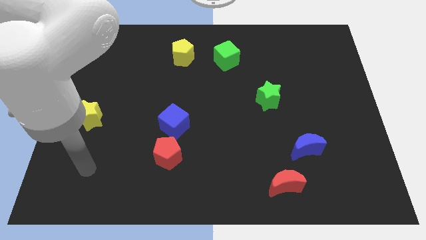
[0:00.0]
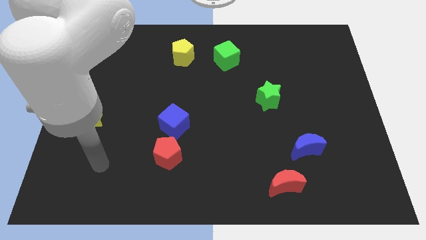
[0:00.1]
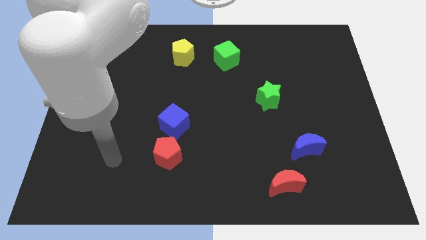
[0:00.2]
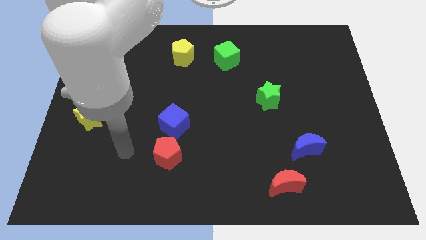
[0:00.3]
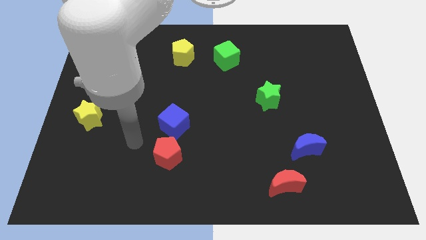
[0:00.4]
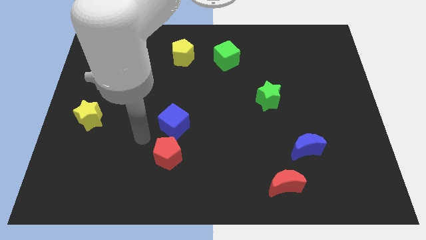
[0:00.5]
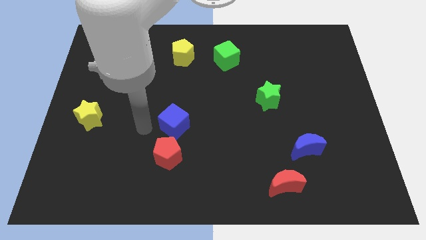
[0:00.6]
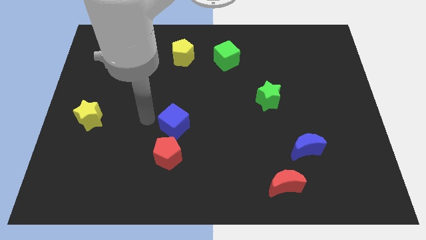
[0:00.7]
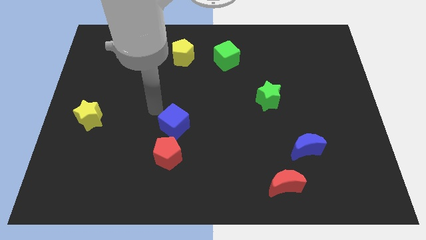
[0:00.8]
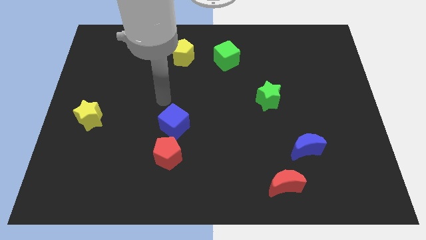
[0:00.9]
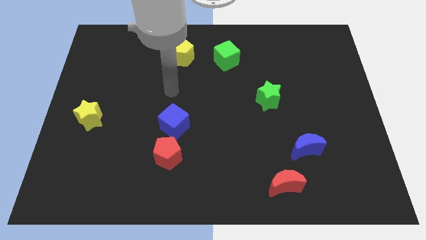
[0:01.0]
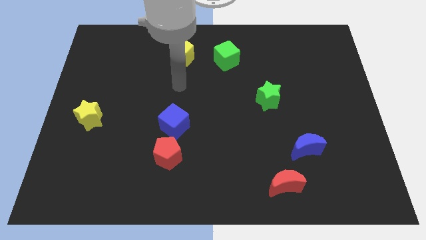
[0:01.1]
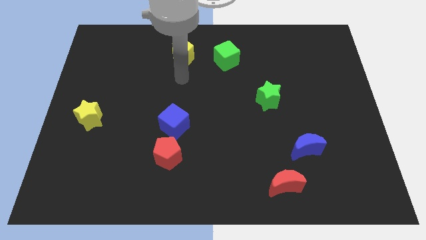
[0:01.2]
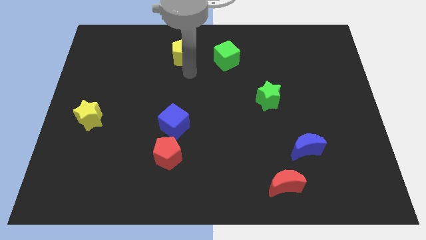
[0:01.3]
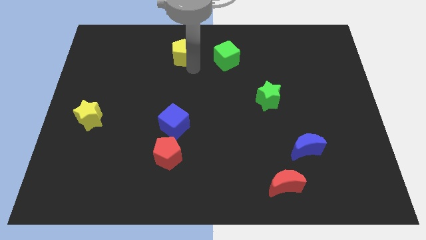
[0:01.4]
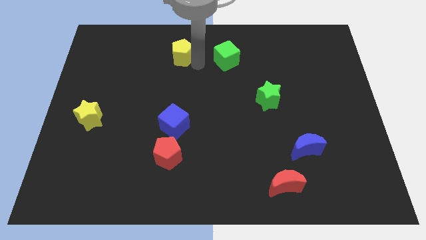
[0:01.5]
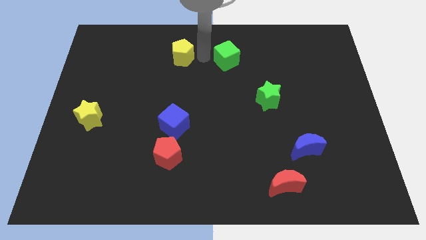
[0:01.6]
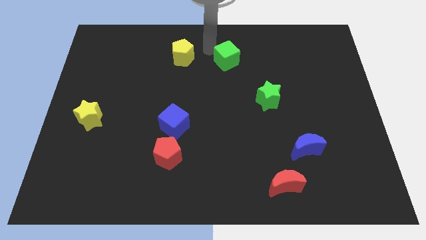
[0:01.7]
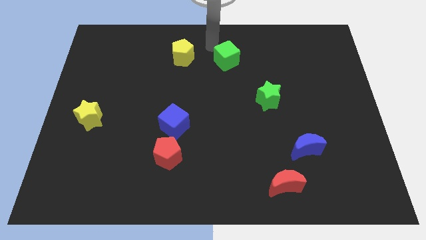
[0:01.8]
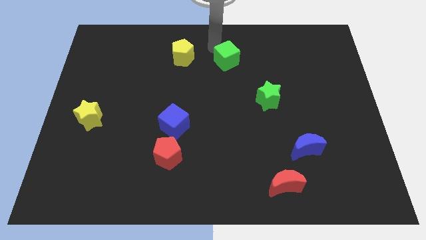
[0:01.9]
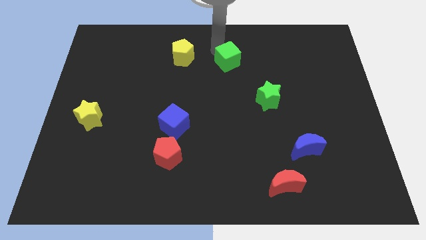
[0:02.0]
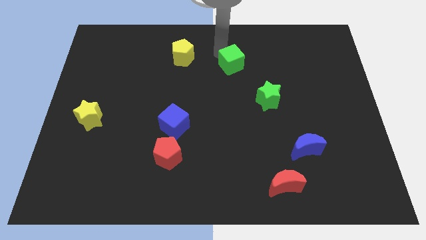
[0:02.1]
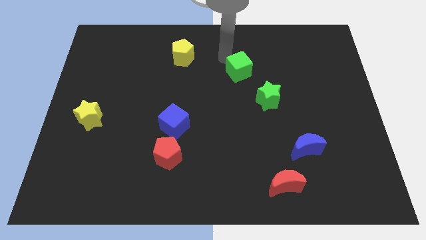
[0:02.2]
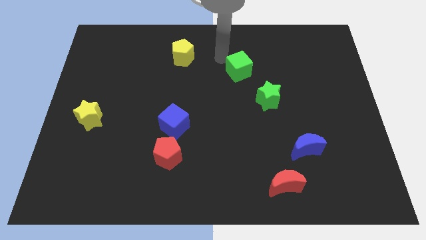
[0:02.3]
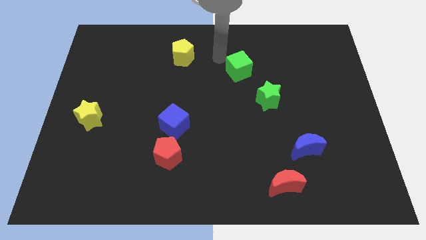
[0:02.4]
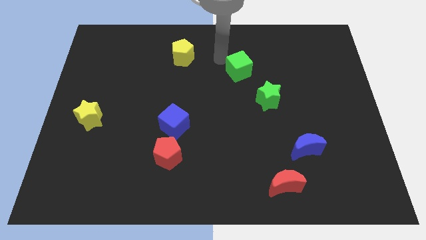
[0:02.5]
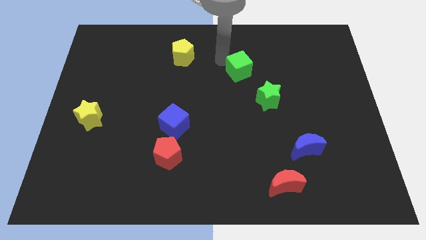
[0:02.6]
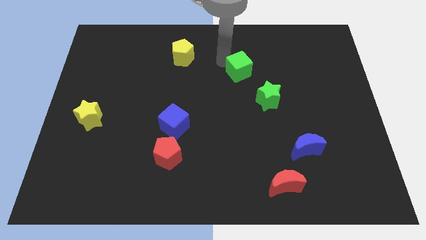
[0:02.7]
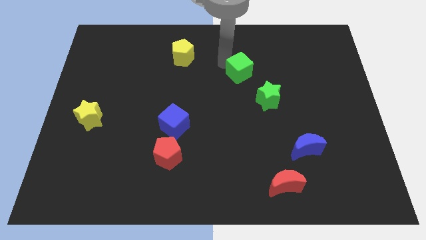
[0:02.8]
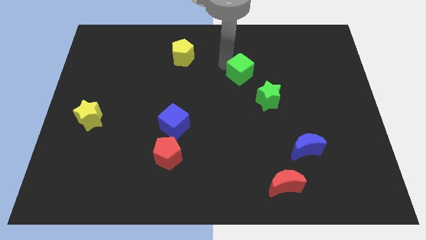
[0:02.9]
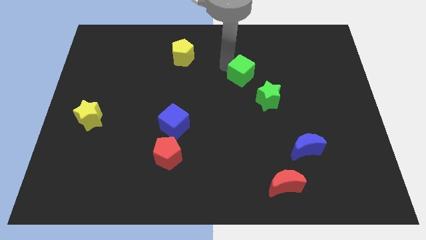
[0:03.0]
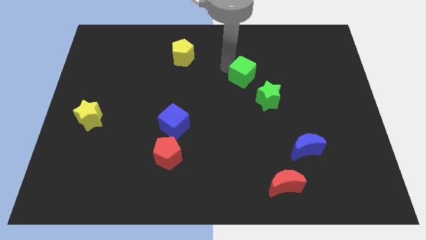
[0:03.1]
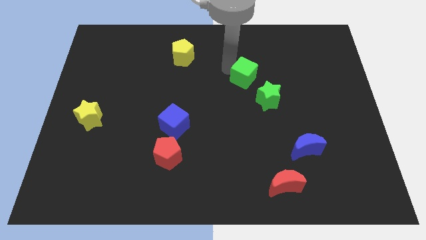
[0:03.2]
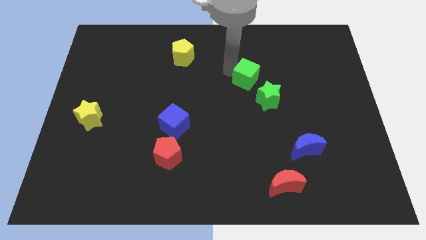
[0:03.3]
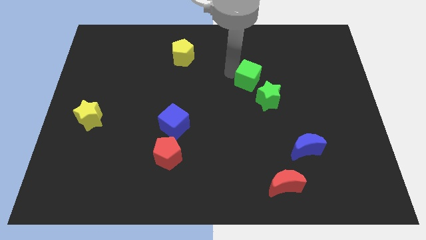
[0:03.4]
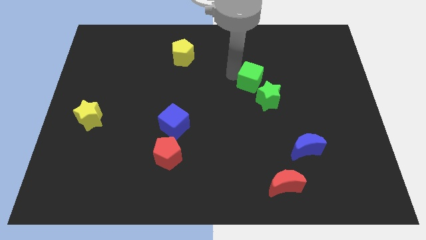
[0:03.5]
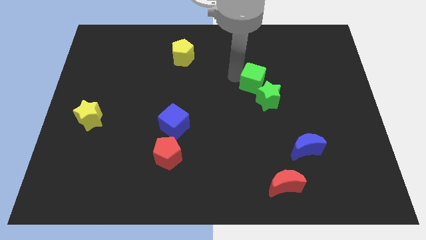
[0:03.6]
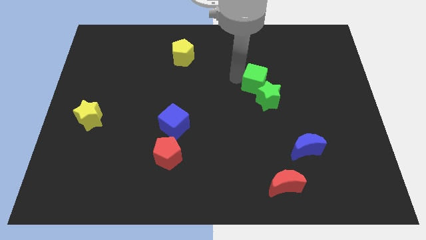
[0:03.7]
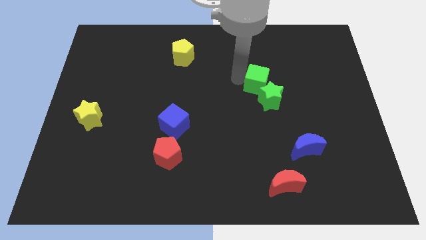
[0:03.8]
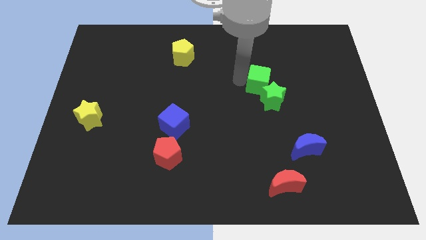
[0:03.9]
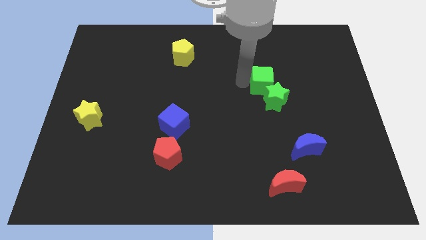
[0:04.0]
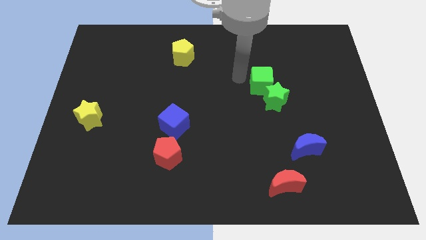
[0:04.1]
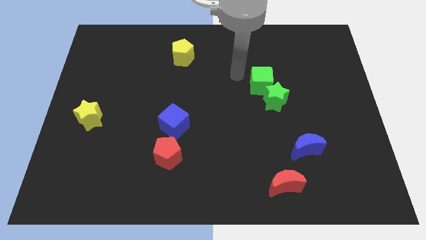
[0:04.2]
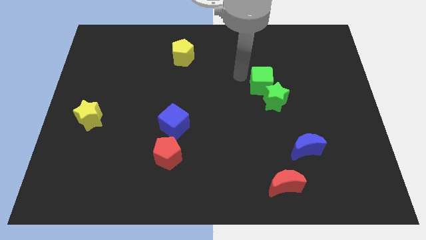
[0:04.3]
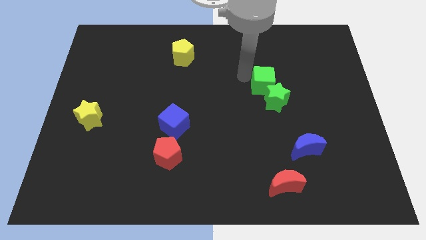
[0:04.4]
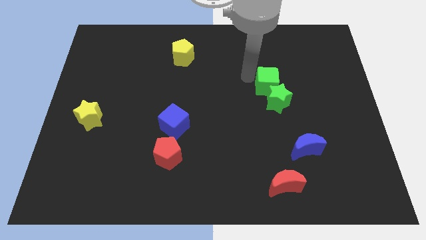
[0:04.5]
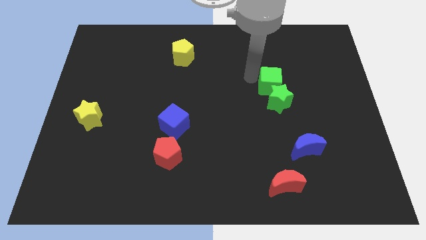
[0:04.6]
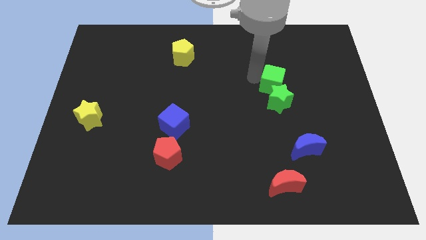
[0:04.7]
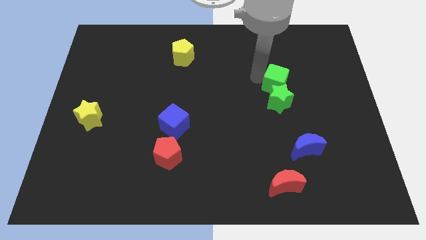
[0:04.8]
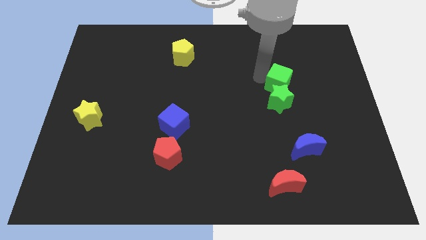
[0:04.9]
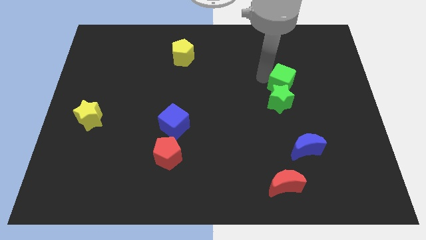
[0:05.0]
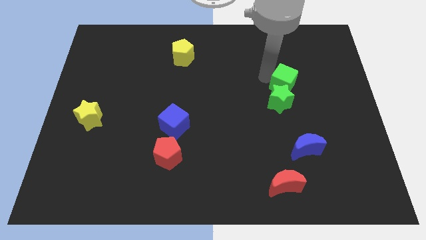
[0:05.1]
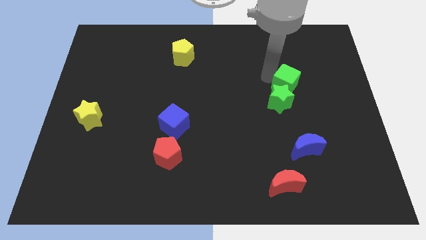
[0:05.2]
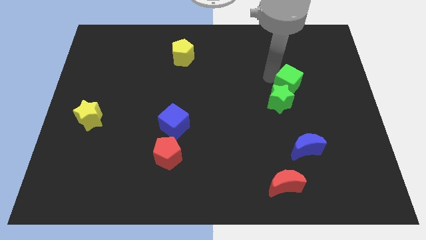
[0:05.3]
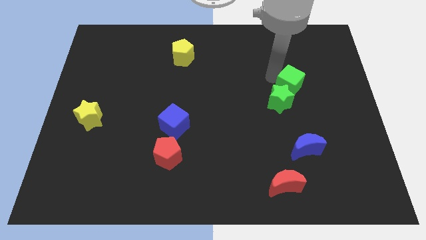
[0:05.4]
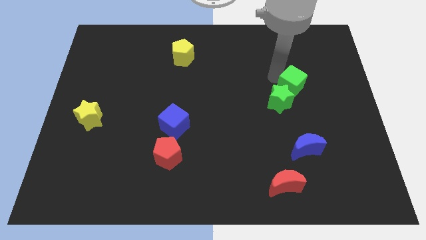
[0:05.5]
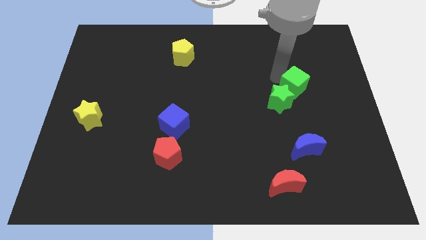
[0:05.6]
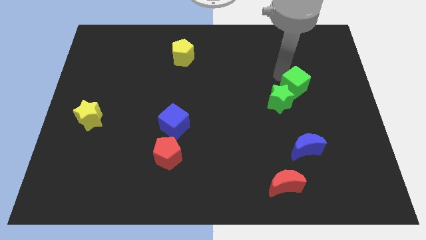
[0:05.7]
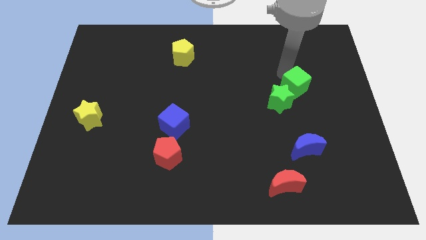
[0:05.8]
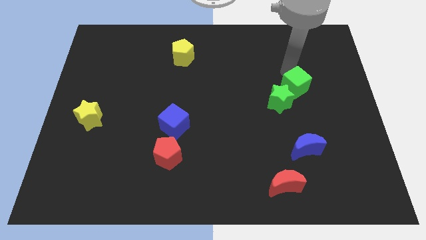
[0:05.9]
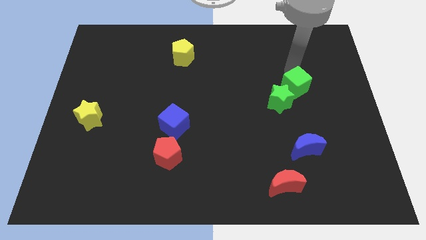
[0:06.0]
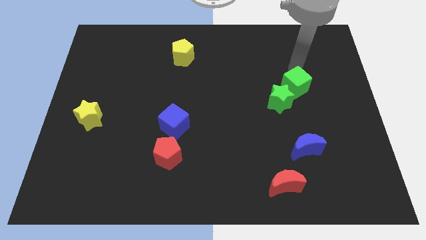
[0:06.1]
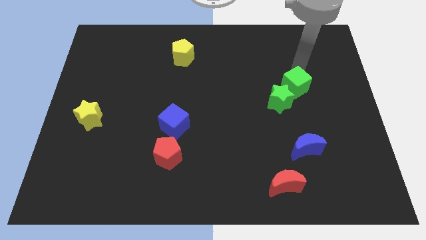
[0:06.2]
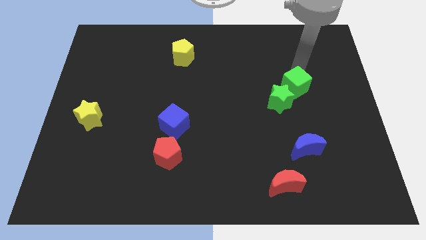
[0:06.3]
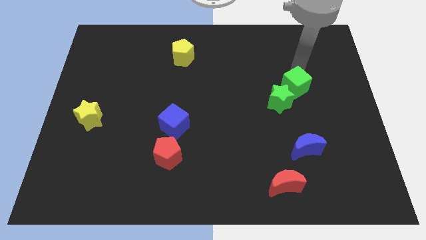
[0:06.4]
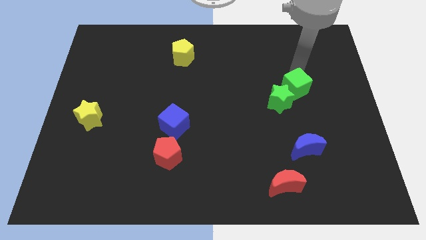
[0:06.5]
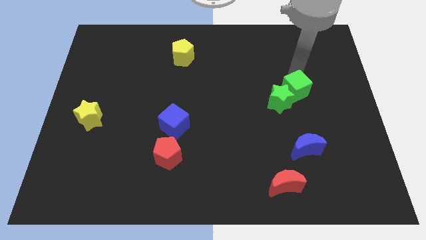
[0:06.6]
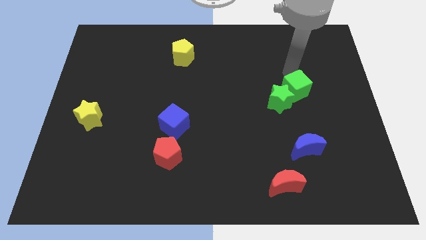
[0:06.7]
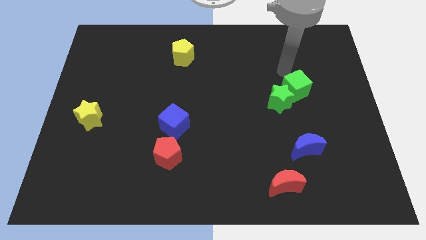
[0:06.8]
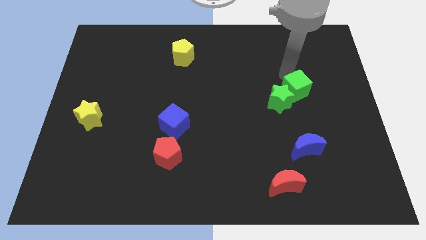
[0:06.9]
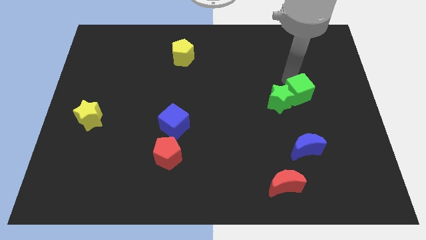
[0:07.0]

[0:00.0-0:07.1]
move the green cube down and then right

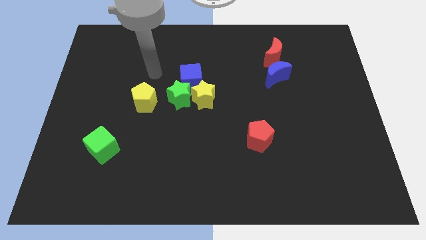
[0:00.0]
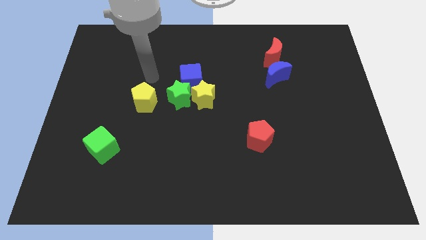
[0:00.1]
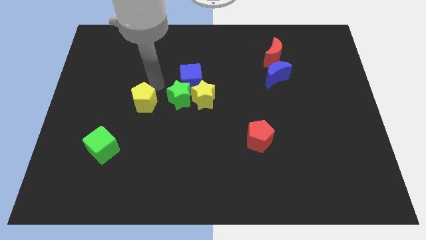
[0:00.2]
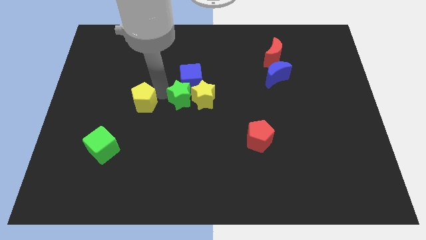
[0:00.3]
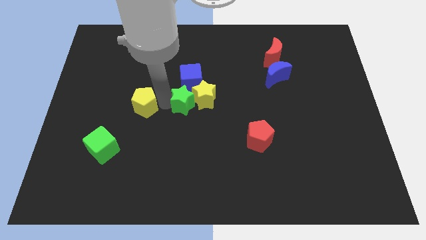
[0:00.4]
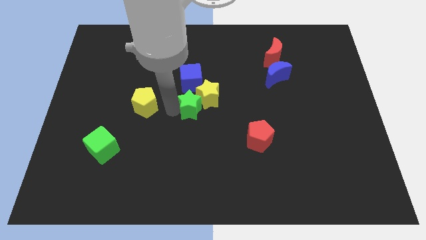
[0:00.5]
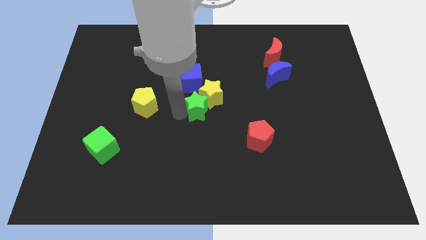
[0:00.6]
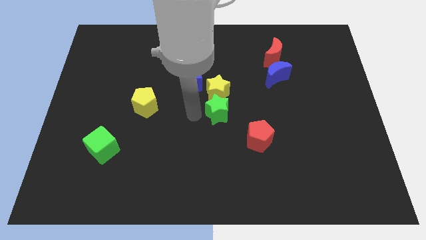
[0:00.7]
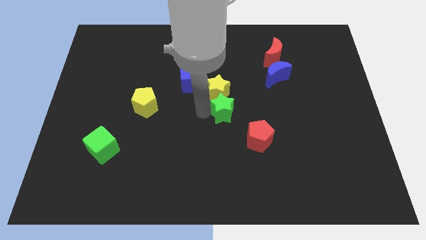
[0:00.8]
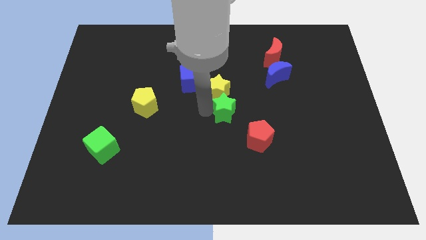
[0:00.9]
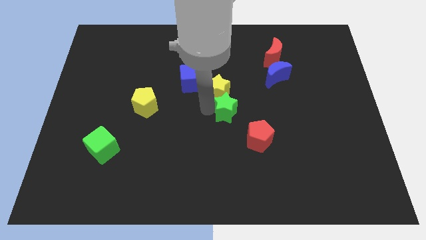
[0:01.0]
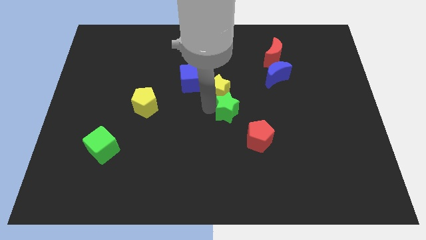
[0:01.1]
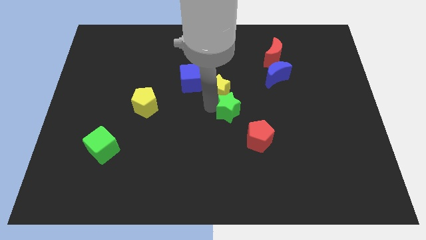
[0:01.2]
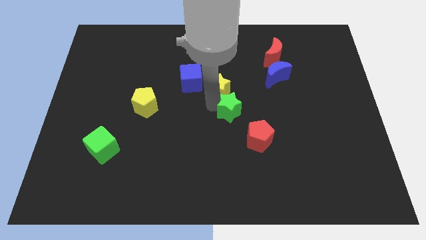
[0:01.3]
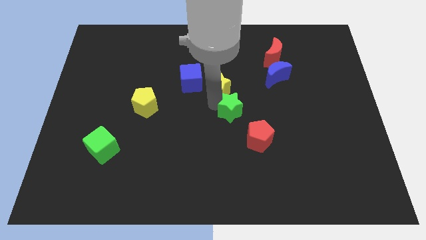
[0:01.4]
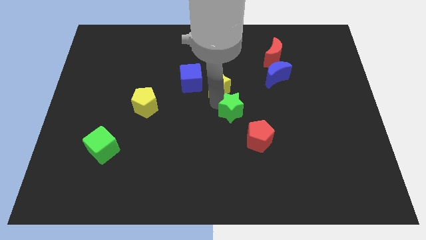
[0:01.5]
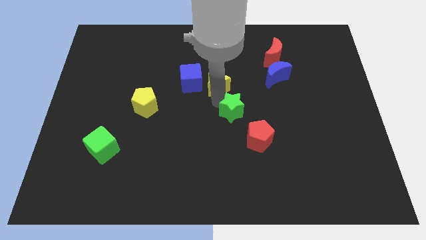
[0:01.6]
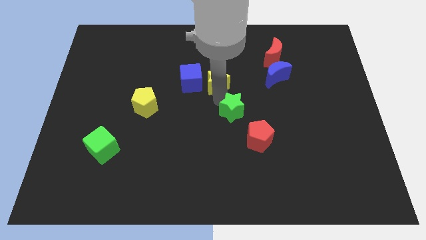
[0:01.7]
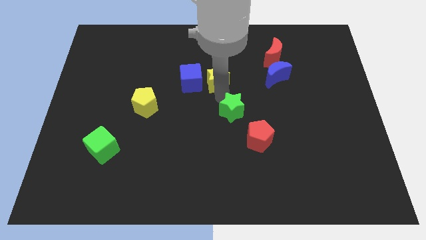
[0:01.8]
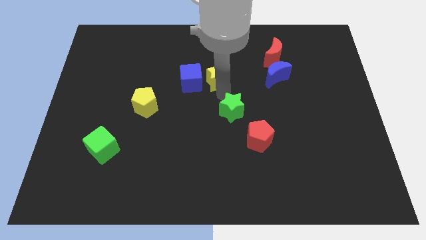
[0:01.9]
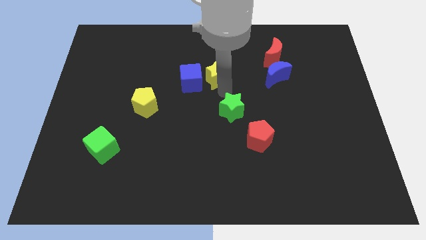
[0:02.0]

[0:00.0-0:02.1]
slightly push the yellow star upwards and right
